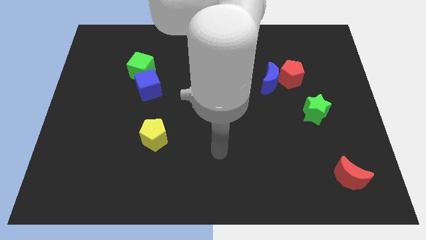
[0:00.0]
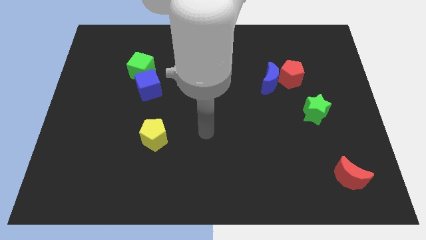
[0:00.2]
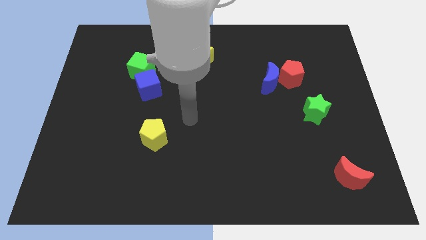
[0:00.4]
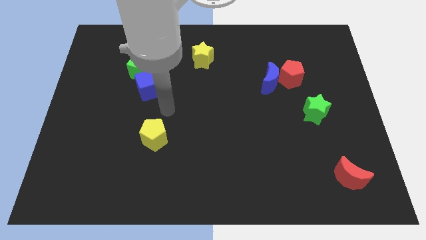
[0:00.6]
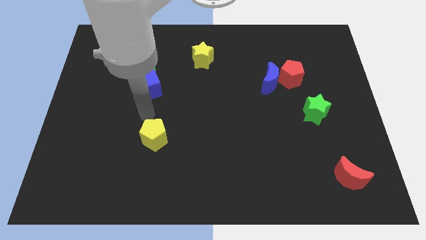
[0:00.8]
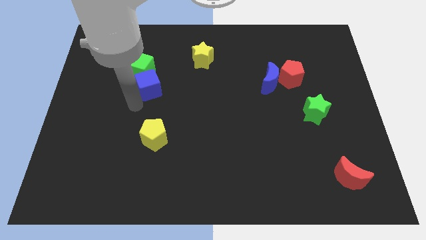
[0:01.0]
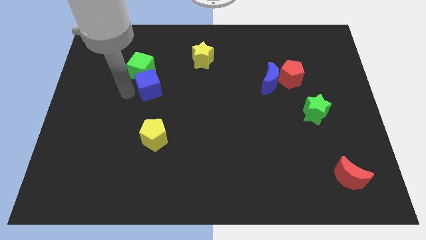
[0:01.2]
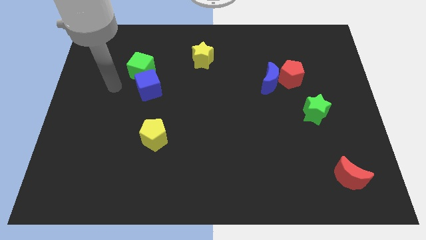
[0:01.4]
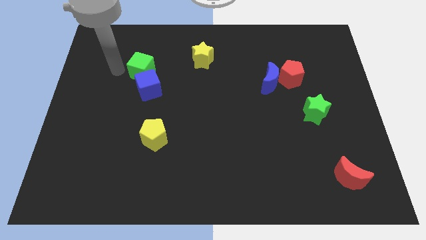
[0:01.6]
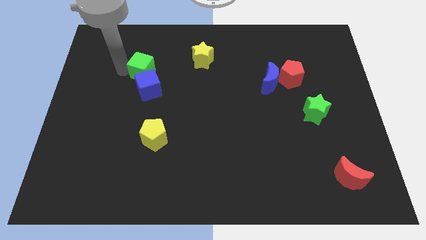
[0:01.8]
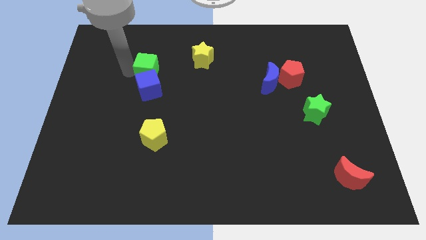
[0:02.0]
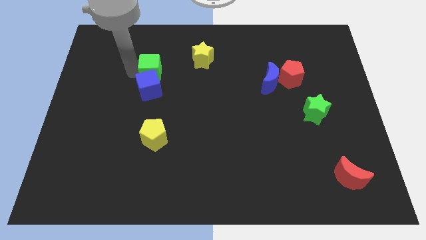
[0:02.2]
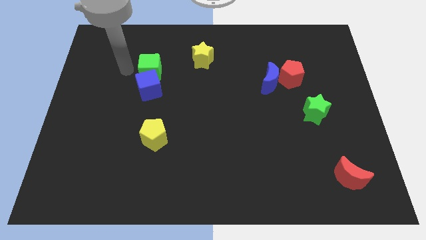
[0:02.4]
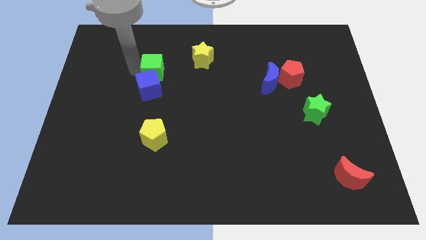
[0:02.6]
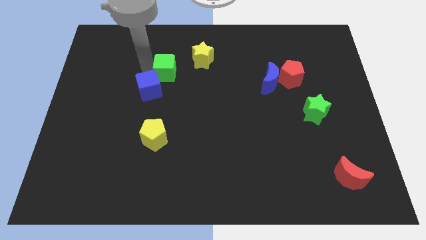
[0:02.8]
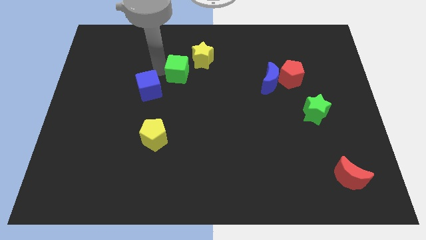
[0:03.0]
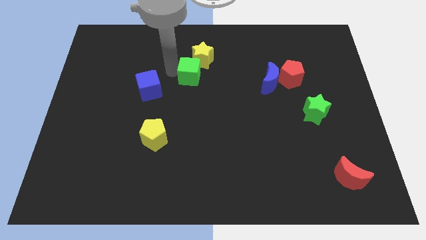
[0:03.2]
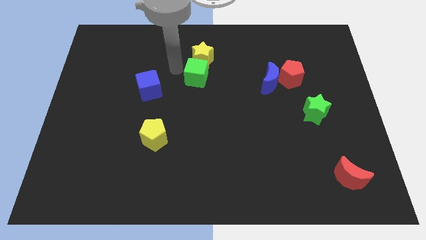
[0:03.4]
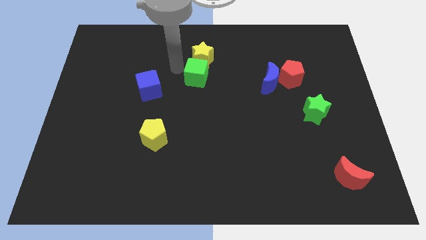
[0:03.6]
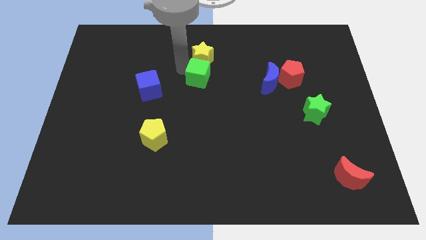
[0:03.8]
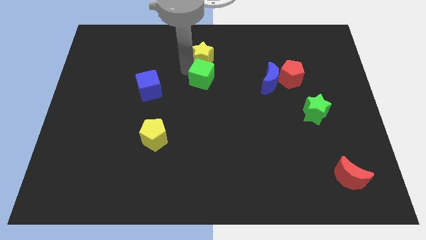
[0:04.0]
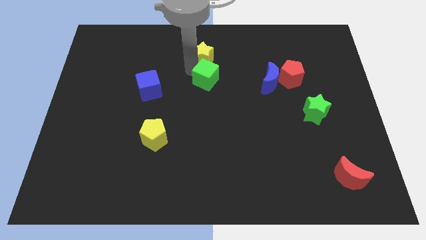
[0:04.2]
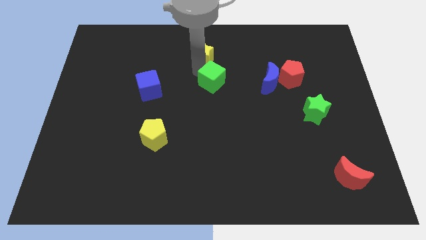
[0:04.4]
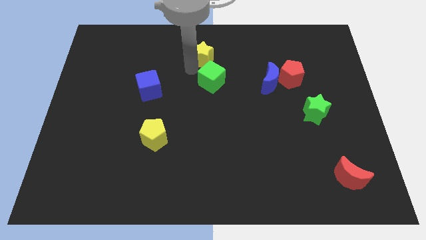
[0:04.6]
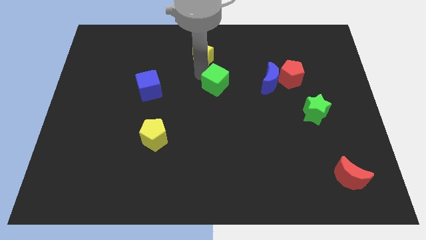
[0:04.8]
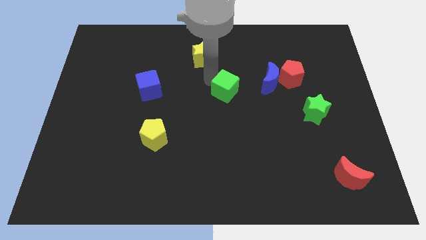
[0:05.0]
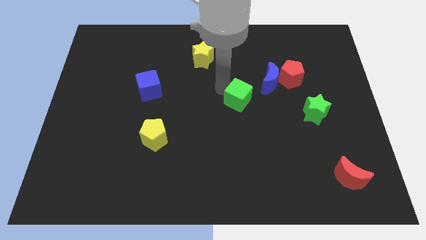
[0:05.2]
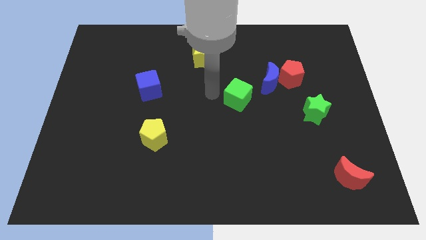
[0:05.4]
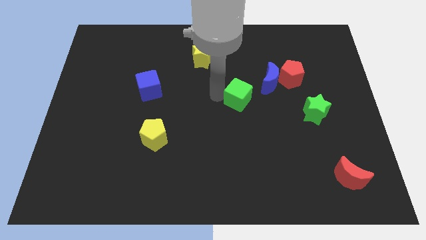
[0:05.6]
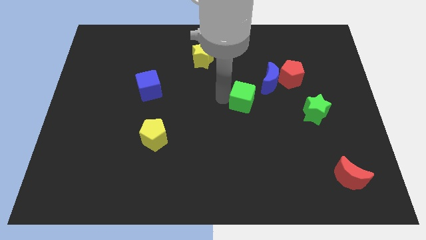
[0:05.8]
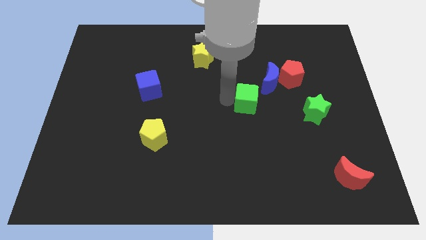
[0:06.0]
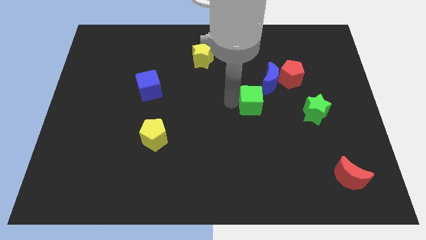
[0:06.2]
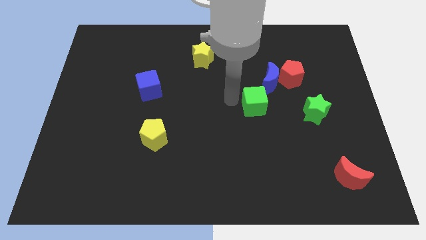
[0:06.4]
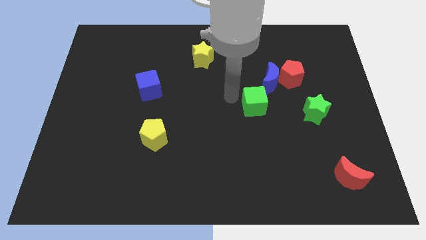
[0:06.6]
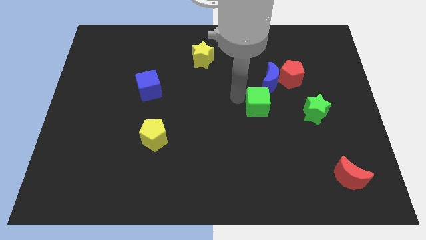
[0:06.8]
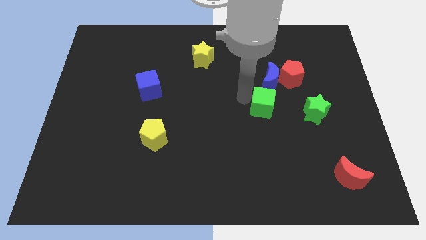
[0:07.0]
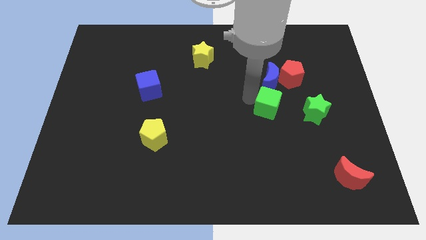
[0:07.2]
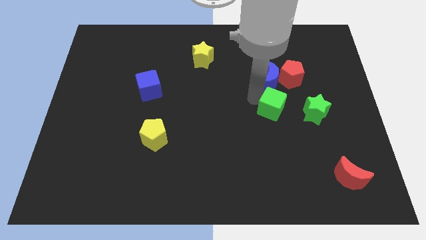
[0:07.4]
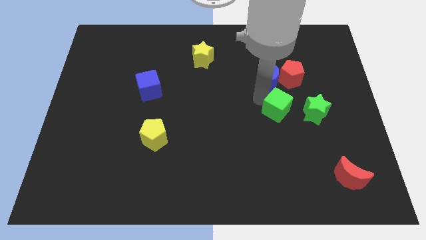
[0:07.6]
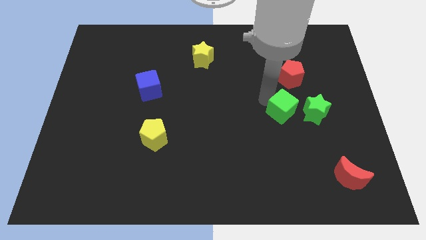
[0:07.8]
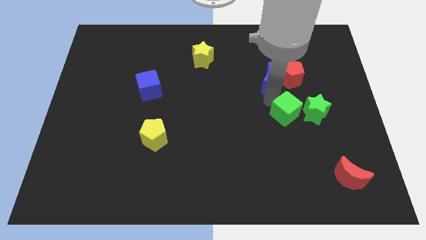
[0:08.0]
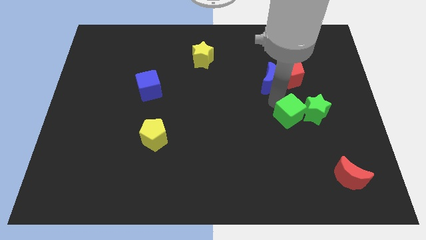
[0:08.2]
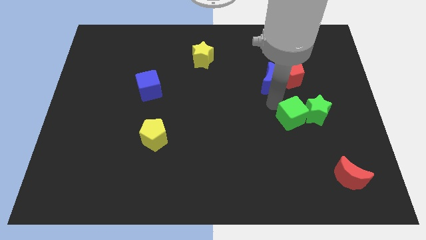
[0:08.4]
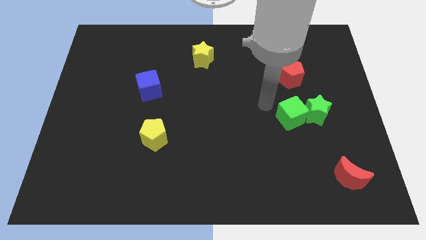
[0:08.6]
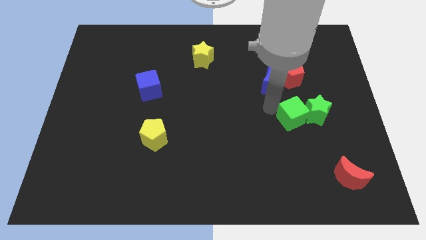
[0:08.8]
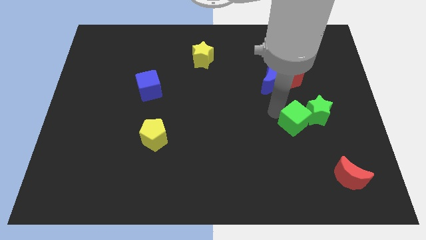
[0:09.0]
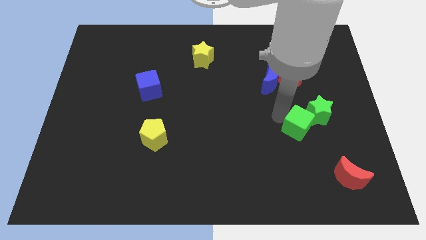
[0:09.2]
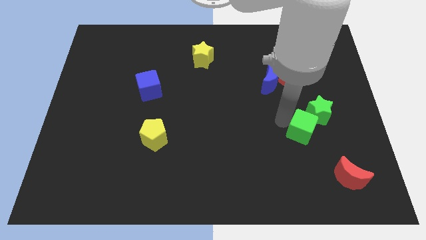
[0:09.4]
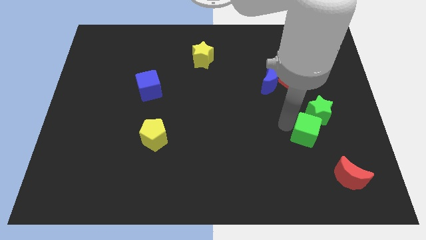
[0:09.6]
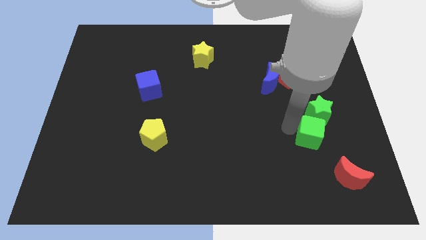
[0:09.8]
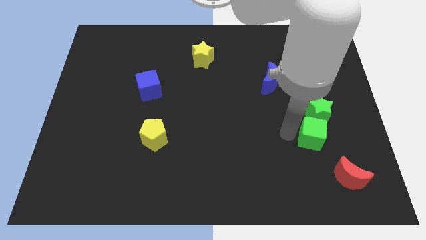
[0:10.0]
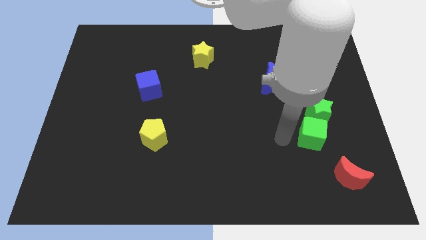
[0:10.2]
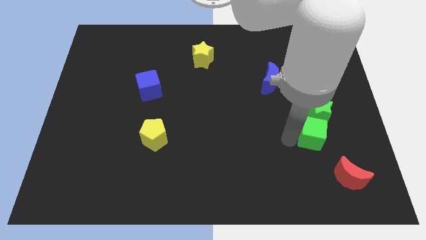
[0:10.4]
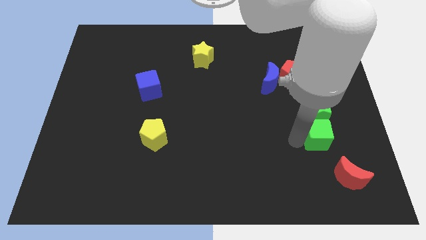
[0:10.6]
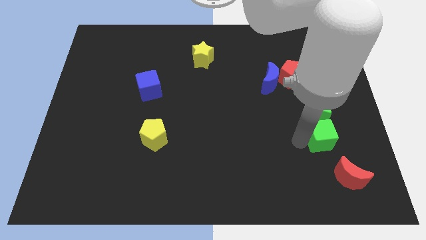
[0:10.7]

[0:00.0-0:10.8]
push the green cube to the bottom right side of the green star

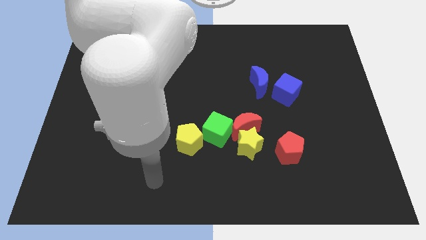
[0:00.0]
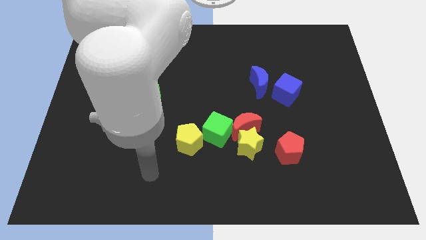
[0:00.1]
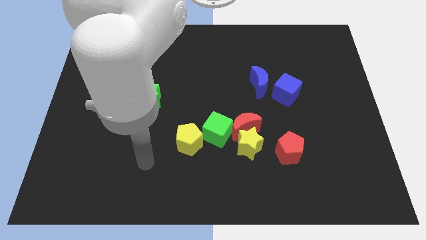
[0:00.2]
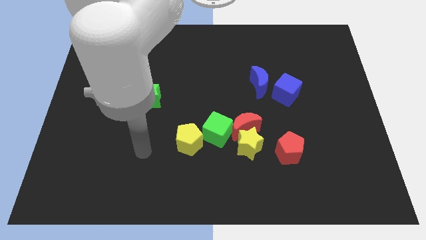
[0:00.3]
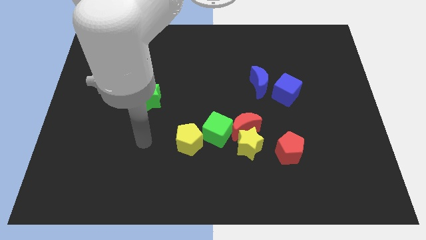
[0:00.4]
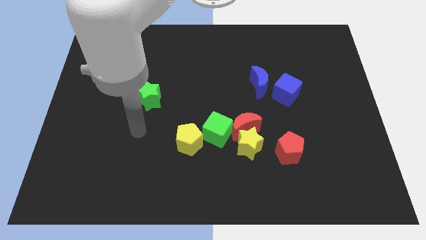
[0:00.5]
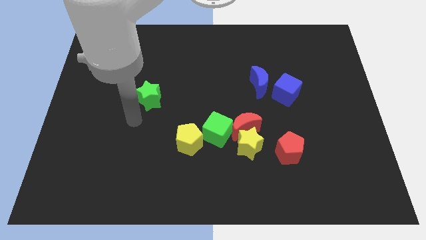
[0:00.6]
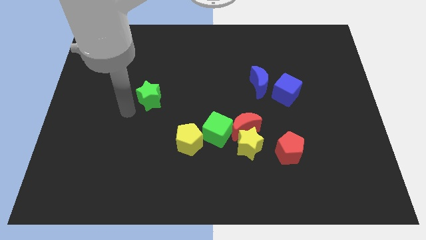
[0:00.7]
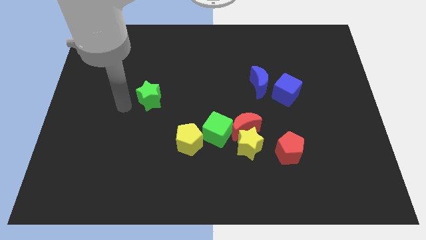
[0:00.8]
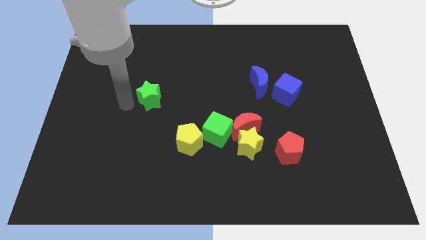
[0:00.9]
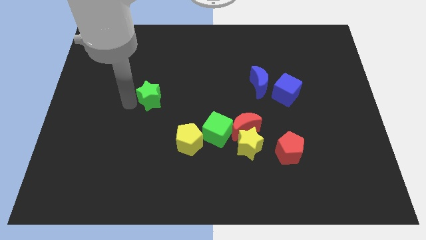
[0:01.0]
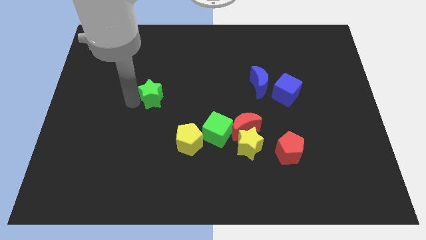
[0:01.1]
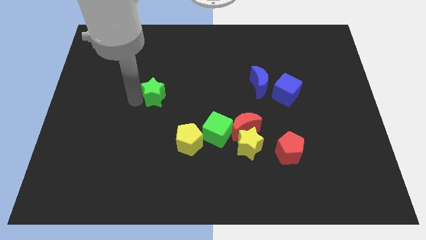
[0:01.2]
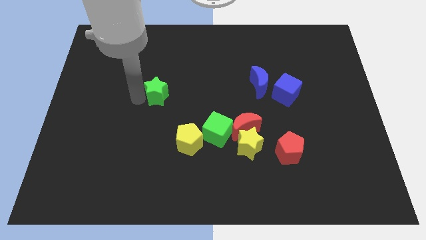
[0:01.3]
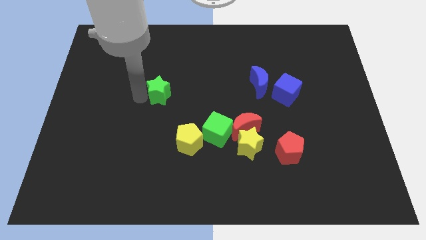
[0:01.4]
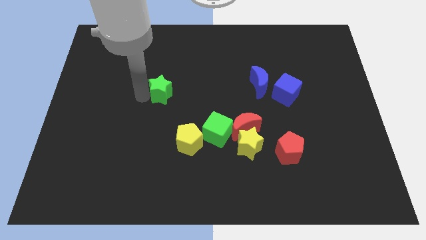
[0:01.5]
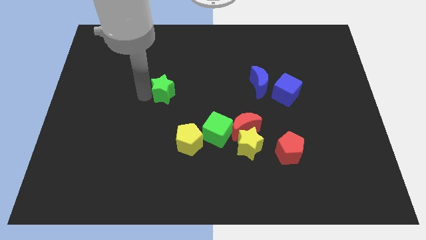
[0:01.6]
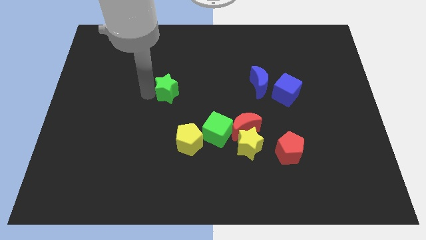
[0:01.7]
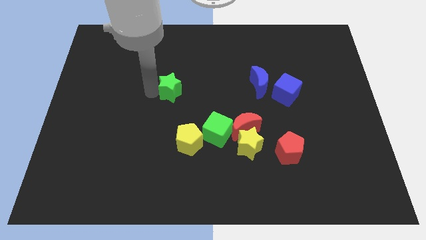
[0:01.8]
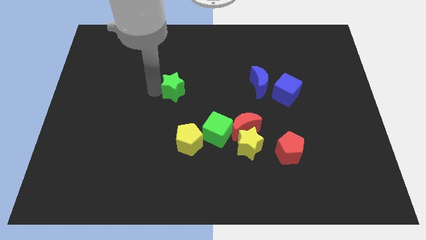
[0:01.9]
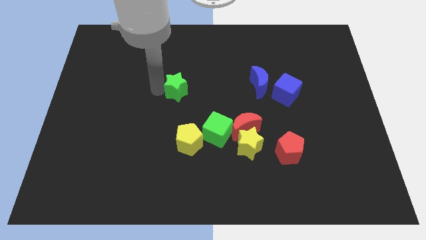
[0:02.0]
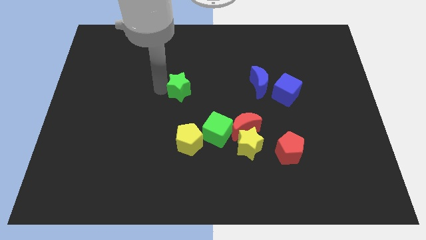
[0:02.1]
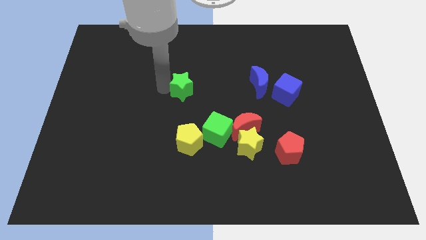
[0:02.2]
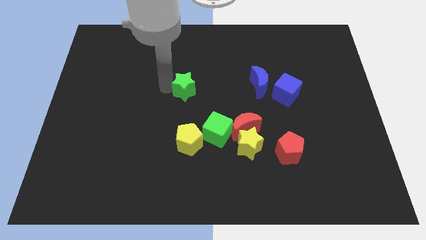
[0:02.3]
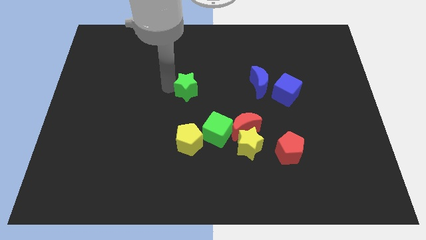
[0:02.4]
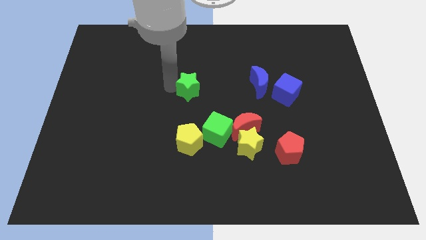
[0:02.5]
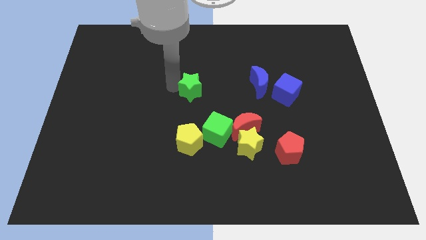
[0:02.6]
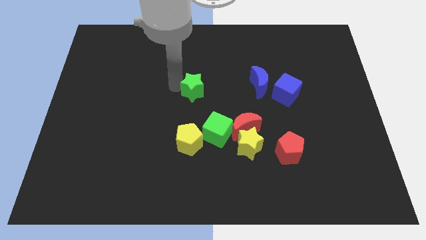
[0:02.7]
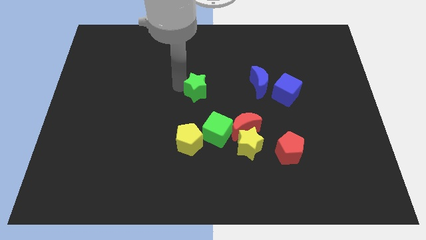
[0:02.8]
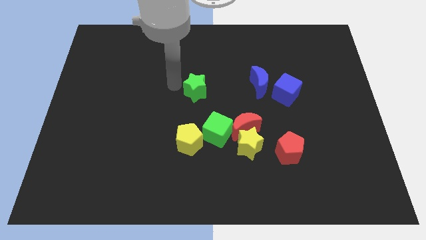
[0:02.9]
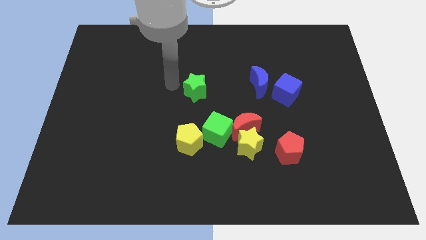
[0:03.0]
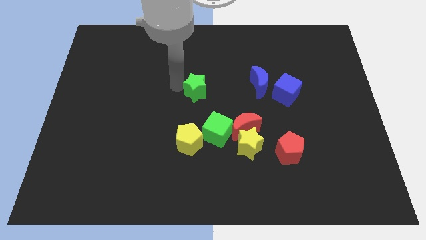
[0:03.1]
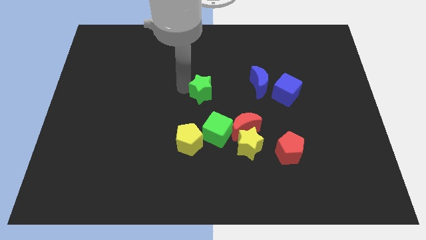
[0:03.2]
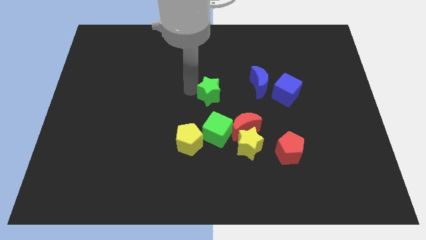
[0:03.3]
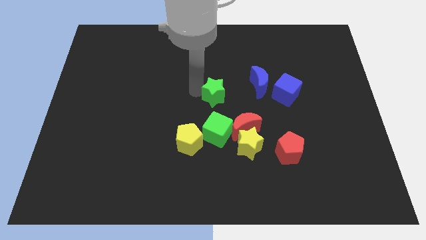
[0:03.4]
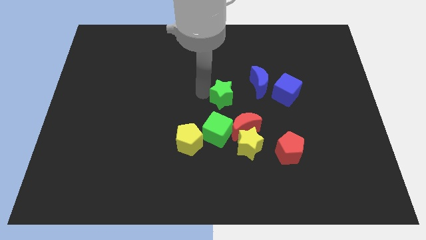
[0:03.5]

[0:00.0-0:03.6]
slide the green star diagonally down and to the left of the blue moon
